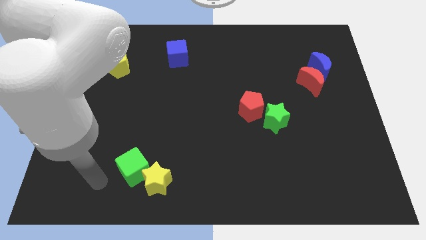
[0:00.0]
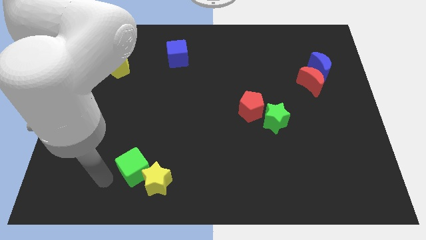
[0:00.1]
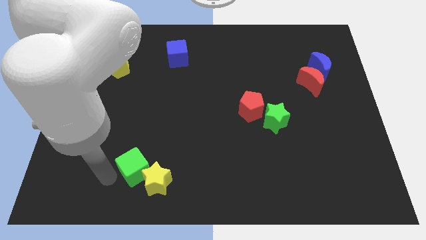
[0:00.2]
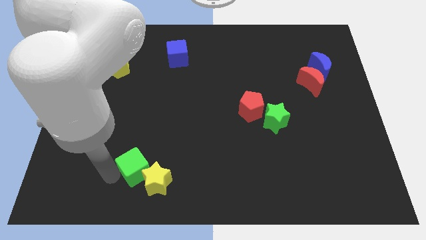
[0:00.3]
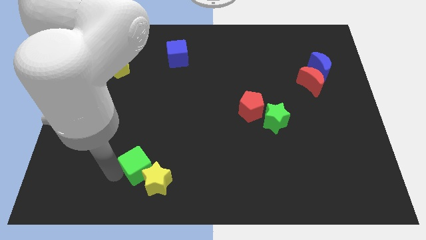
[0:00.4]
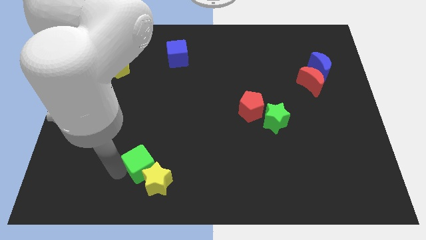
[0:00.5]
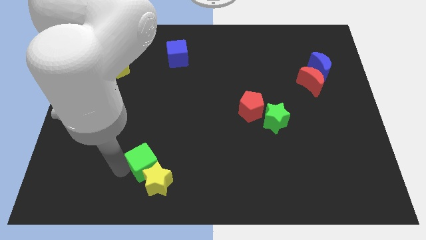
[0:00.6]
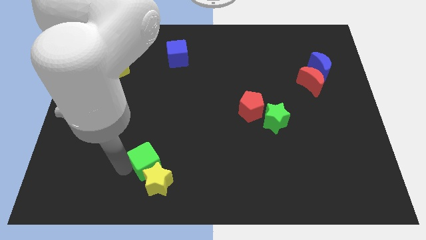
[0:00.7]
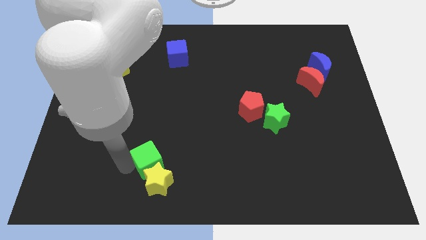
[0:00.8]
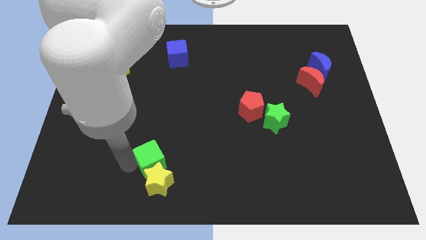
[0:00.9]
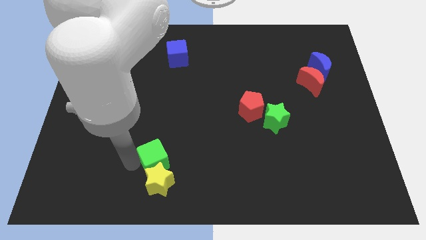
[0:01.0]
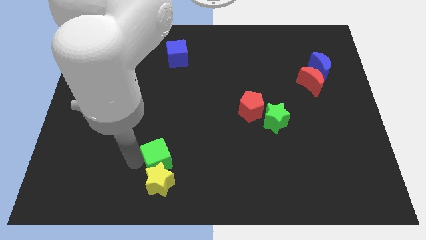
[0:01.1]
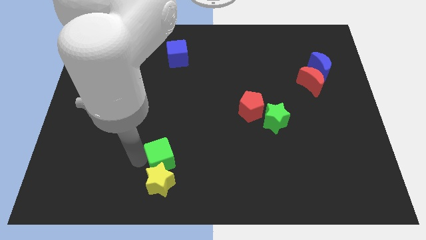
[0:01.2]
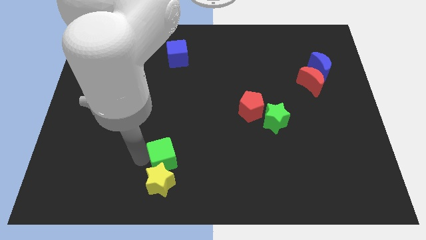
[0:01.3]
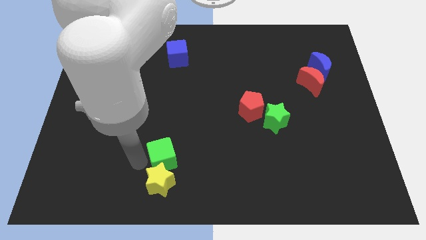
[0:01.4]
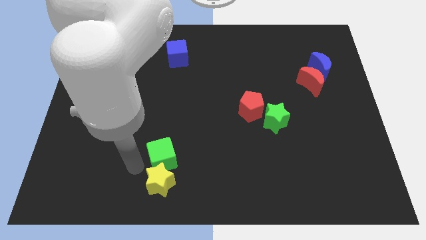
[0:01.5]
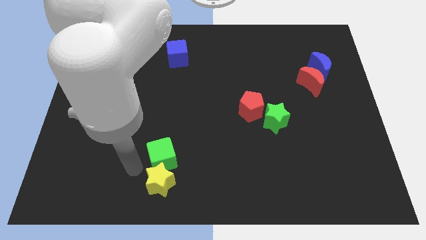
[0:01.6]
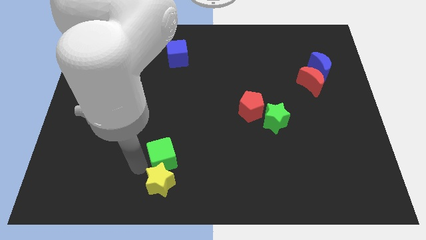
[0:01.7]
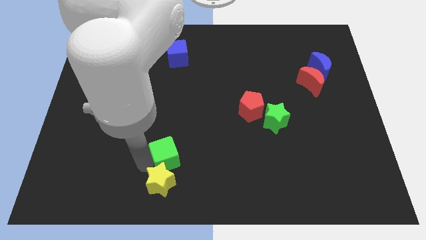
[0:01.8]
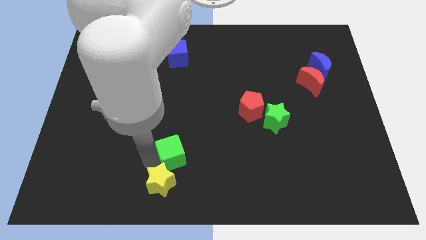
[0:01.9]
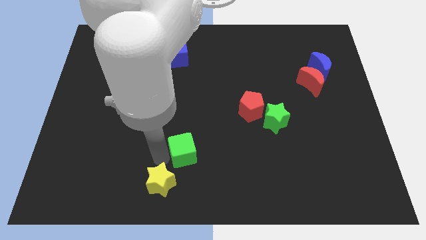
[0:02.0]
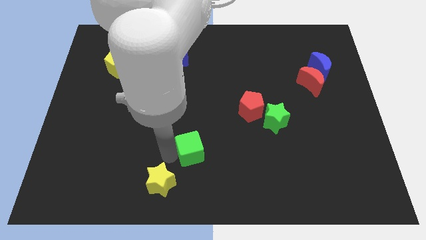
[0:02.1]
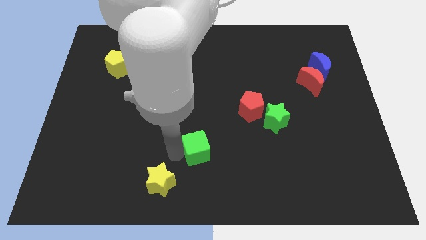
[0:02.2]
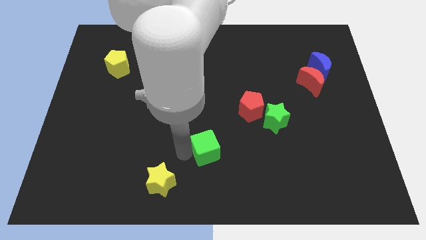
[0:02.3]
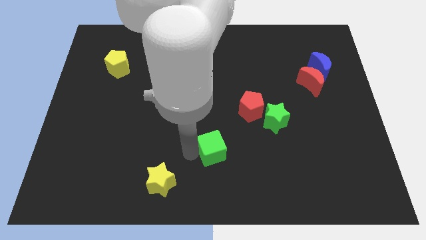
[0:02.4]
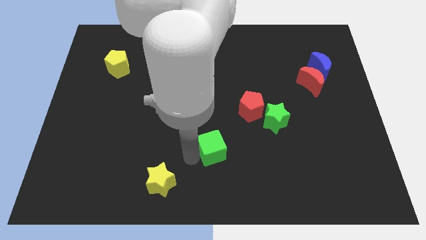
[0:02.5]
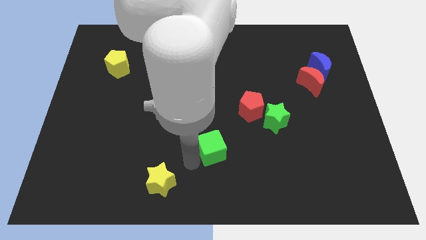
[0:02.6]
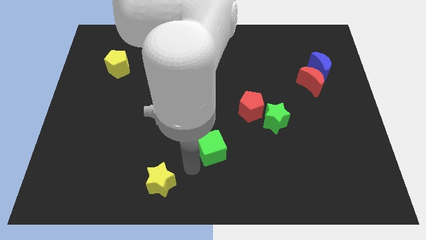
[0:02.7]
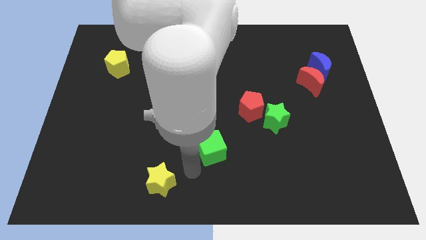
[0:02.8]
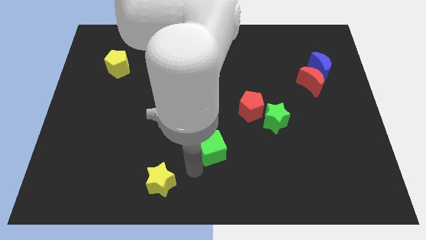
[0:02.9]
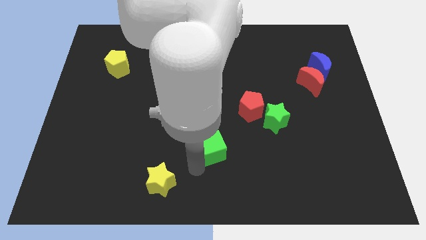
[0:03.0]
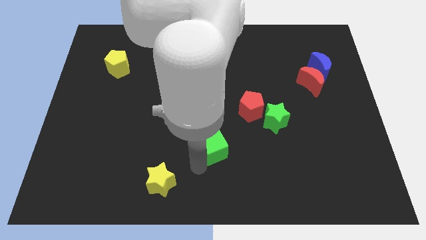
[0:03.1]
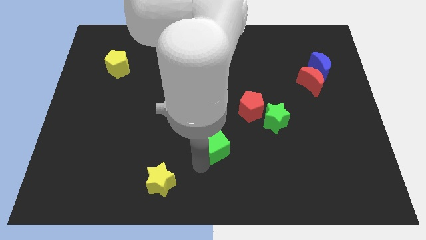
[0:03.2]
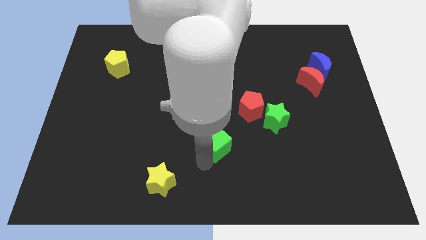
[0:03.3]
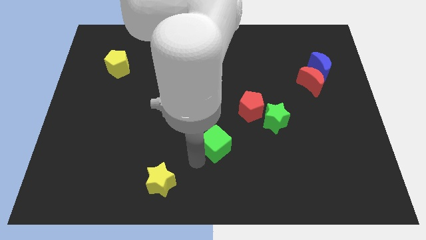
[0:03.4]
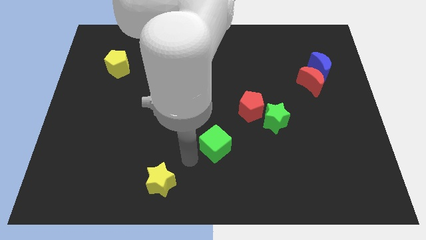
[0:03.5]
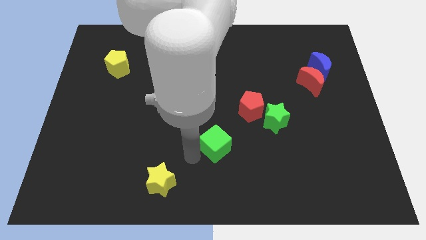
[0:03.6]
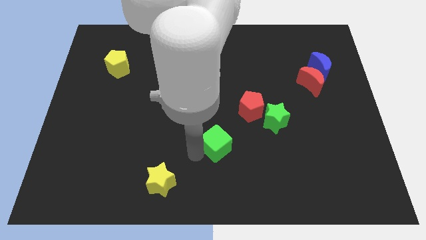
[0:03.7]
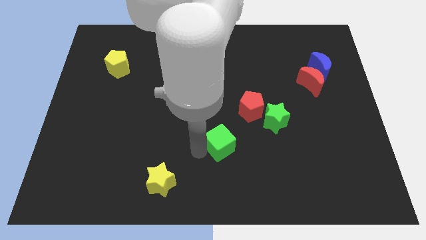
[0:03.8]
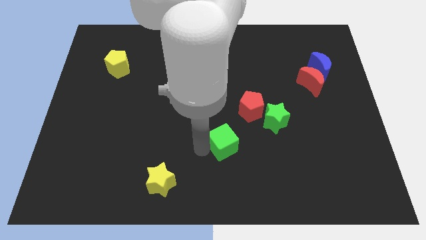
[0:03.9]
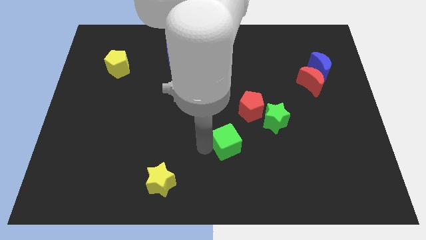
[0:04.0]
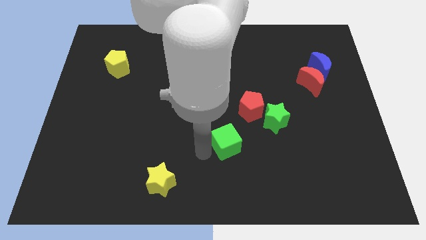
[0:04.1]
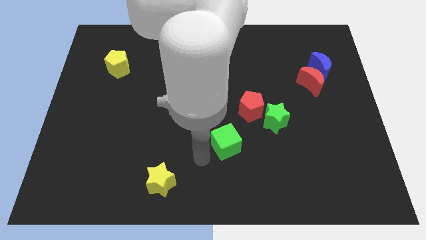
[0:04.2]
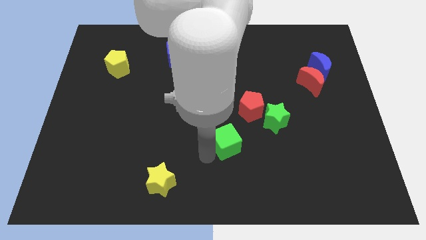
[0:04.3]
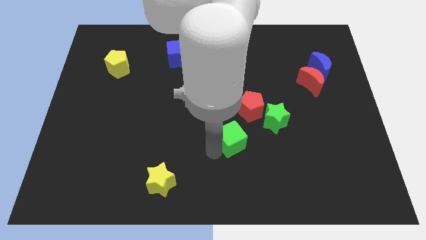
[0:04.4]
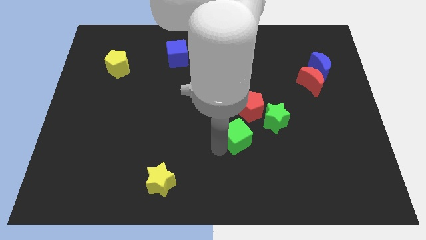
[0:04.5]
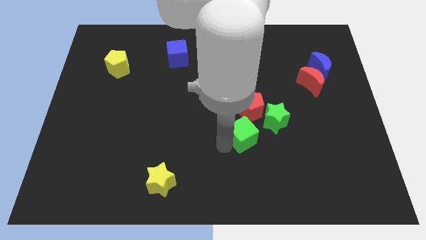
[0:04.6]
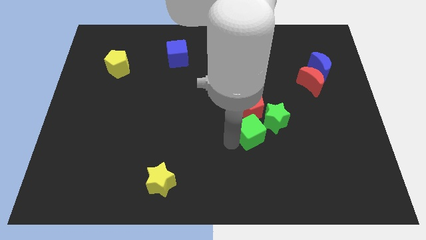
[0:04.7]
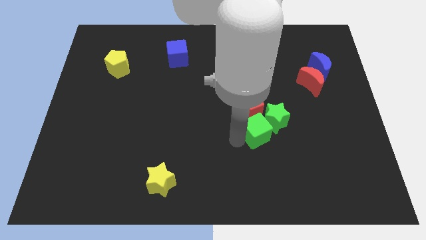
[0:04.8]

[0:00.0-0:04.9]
put the green cube towards the green star

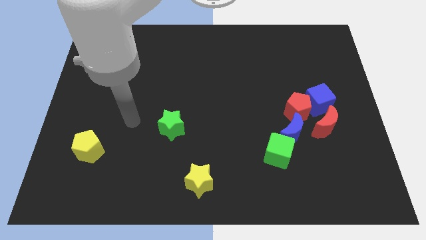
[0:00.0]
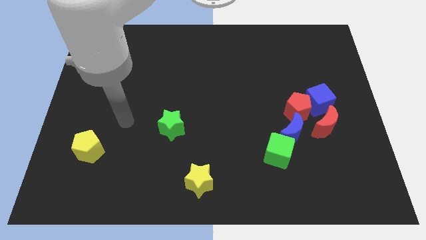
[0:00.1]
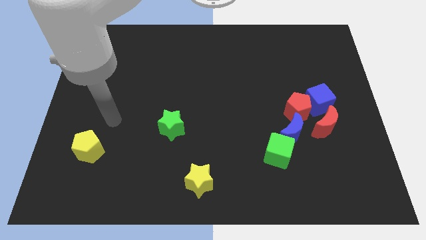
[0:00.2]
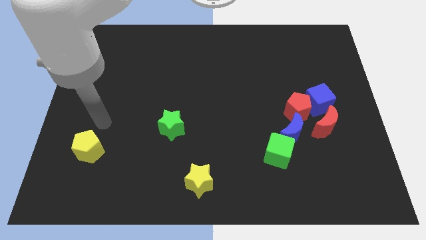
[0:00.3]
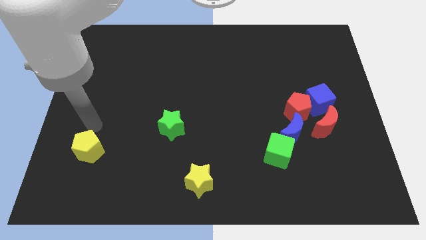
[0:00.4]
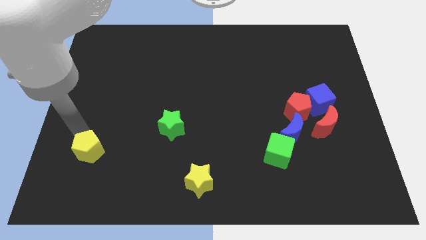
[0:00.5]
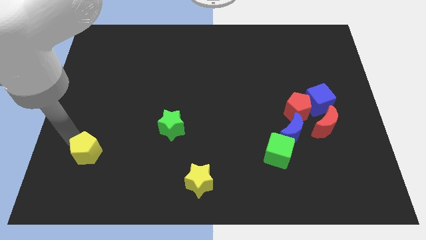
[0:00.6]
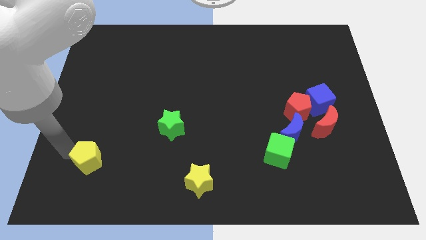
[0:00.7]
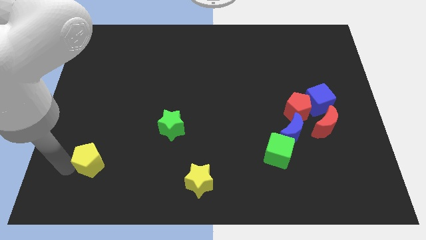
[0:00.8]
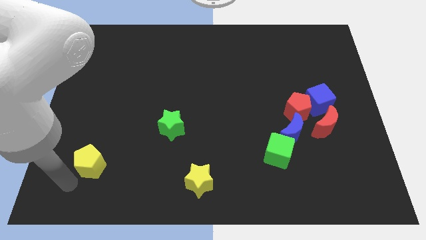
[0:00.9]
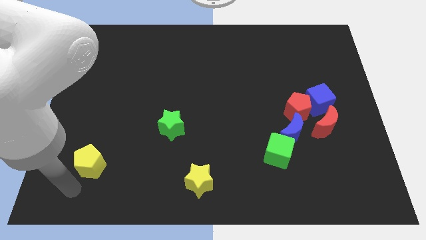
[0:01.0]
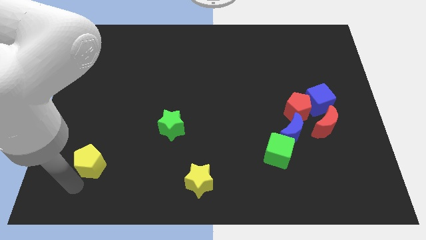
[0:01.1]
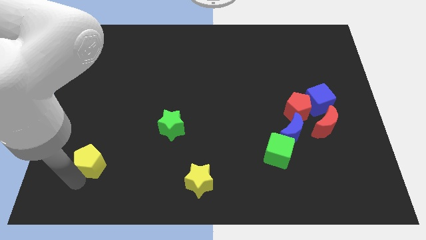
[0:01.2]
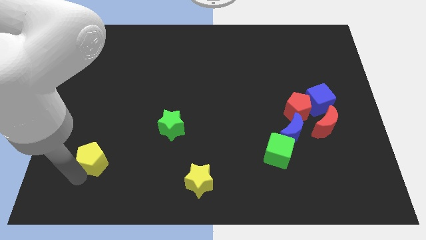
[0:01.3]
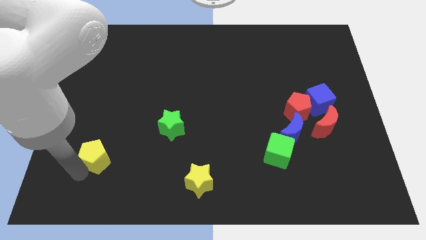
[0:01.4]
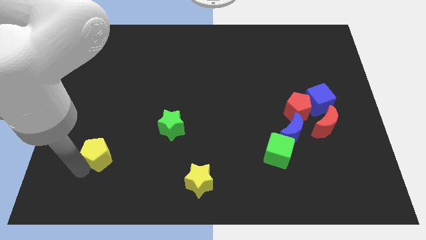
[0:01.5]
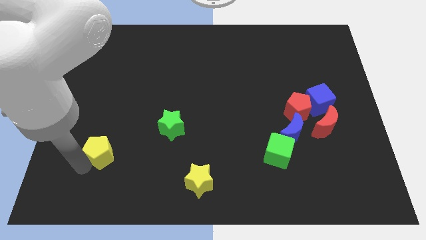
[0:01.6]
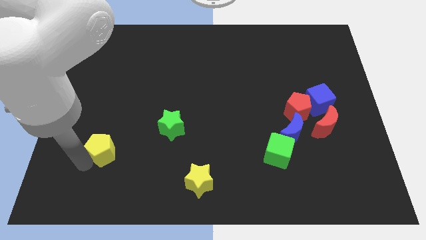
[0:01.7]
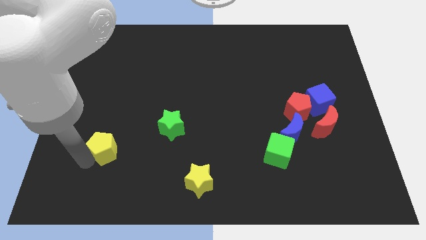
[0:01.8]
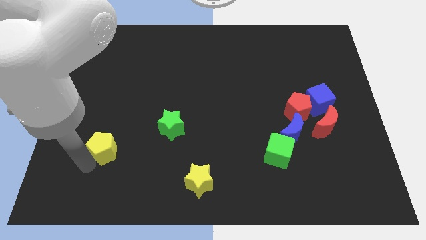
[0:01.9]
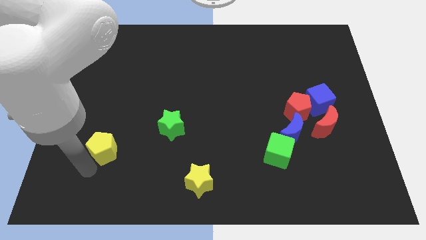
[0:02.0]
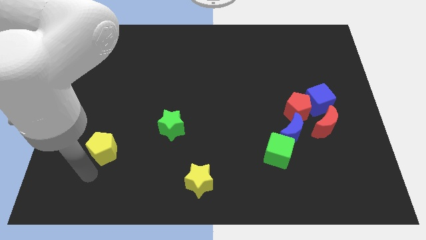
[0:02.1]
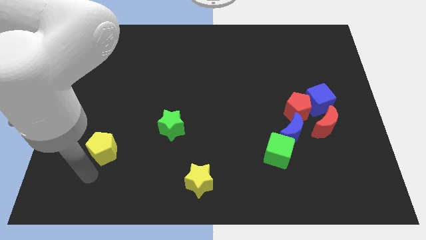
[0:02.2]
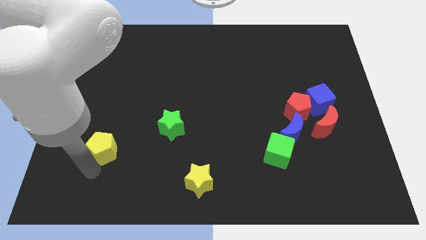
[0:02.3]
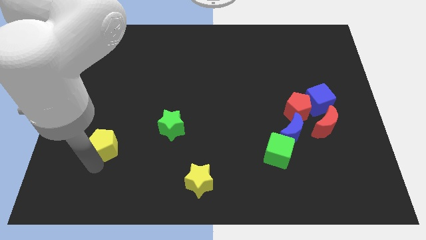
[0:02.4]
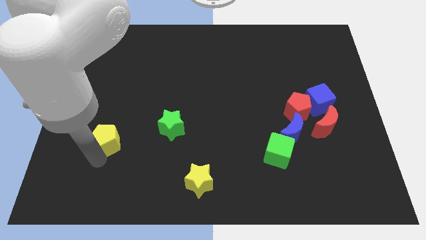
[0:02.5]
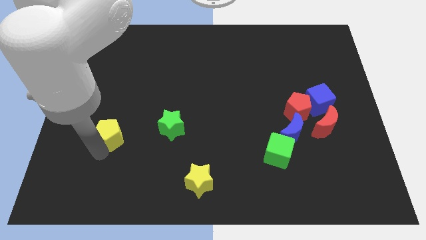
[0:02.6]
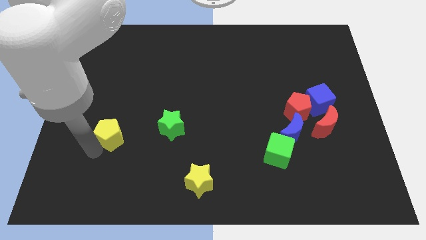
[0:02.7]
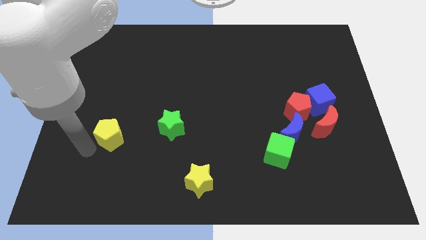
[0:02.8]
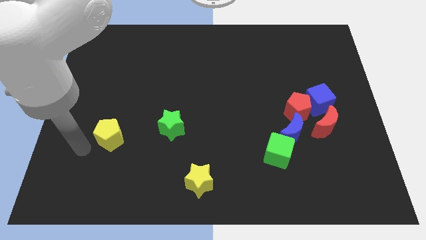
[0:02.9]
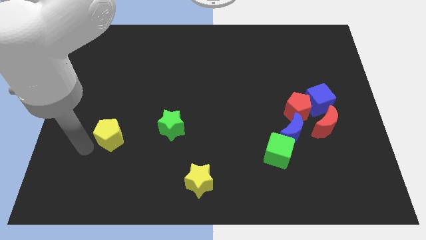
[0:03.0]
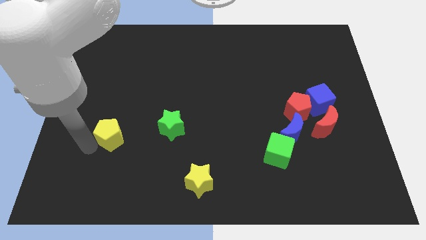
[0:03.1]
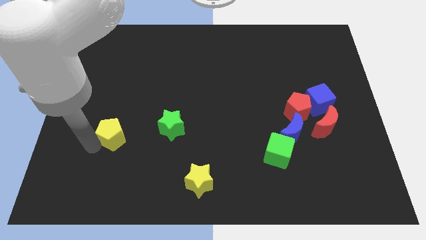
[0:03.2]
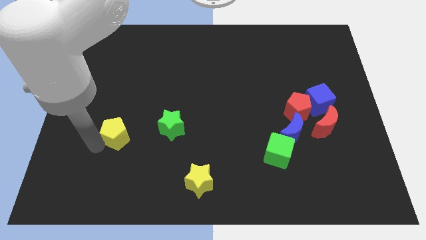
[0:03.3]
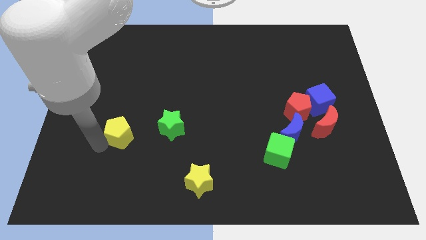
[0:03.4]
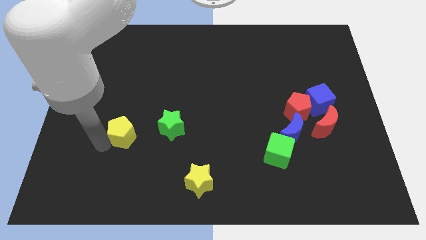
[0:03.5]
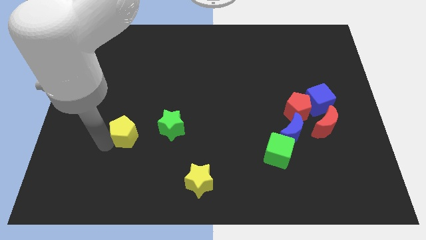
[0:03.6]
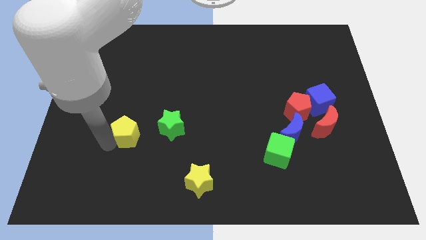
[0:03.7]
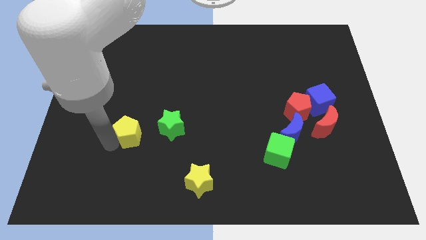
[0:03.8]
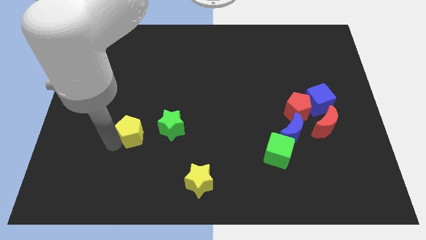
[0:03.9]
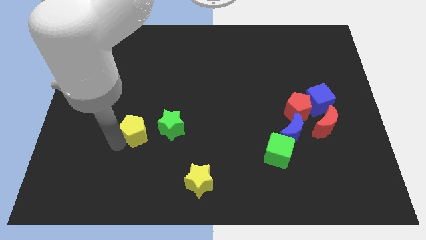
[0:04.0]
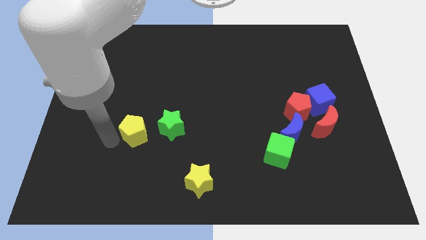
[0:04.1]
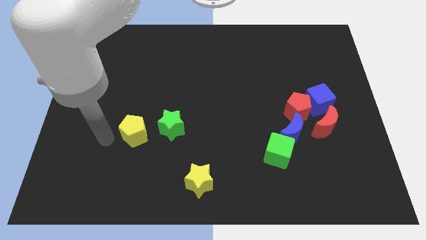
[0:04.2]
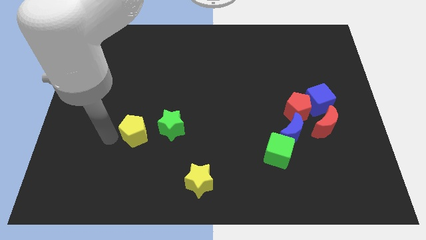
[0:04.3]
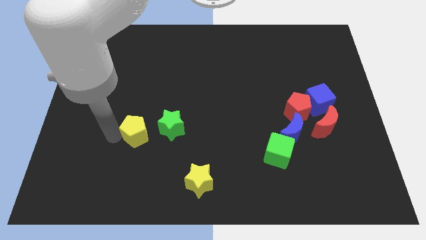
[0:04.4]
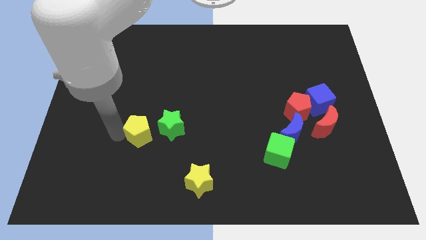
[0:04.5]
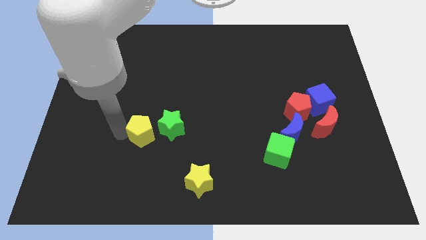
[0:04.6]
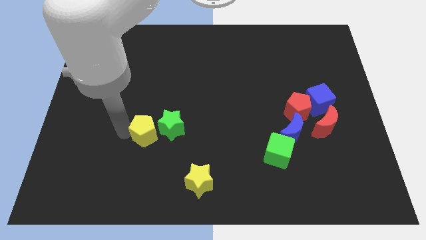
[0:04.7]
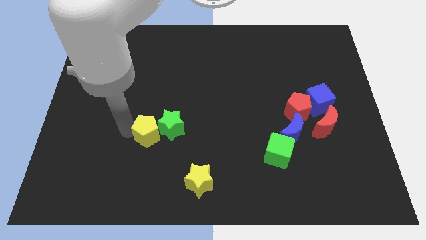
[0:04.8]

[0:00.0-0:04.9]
slide the yellow pentagon to the green star
